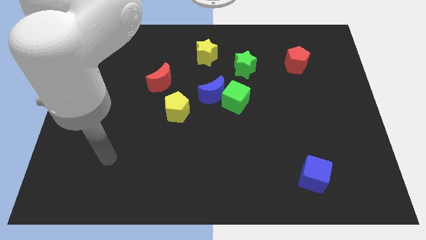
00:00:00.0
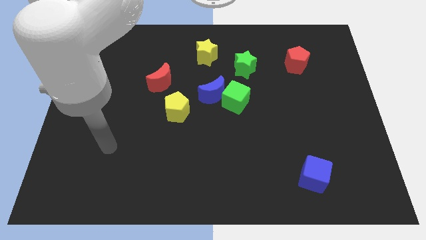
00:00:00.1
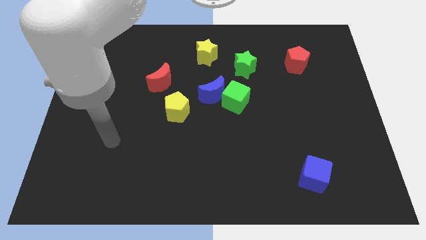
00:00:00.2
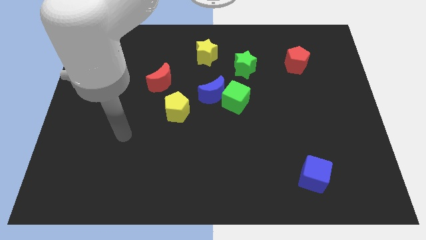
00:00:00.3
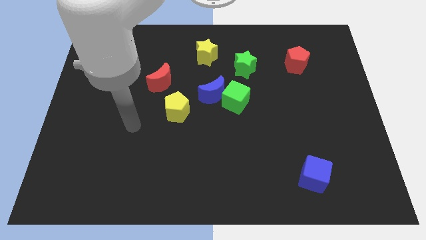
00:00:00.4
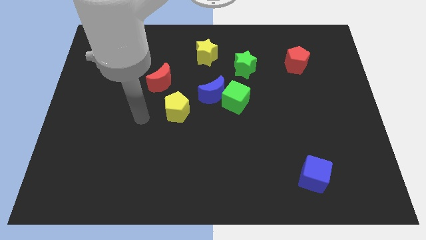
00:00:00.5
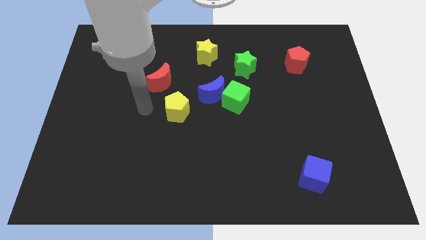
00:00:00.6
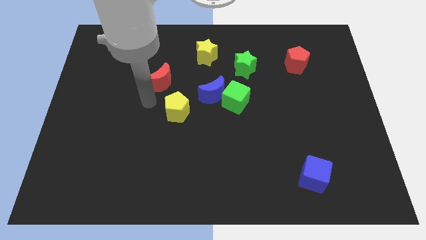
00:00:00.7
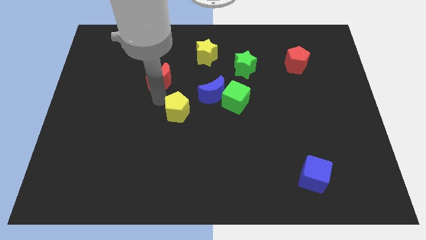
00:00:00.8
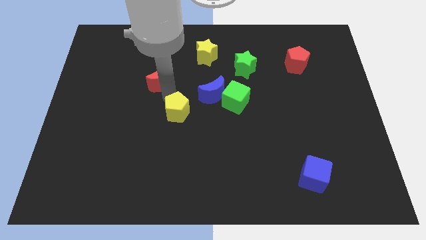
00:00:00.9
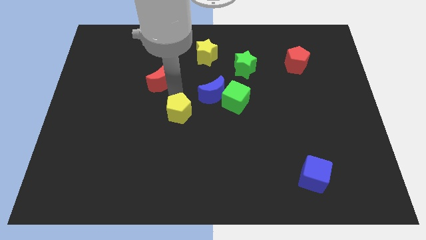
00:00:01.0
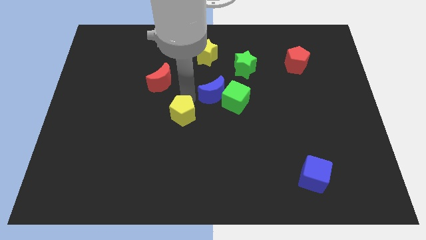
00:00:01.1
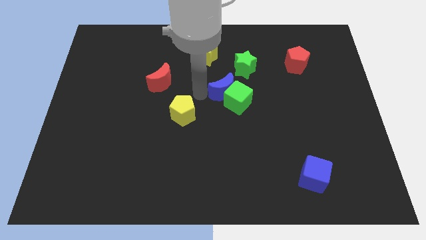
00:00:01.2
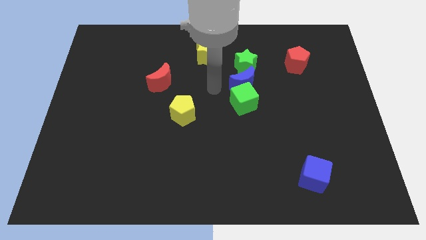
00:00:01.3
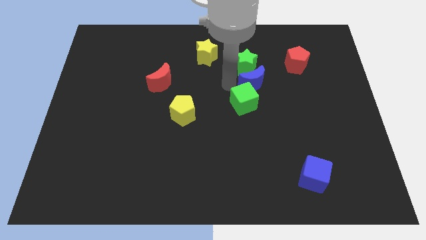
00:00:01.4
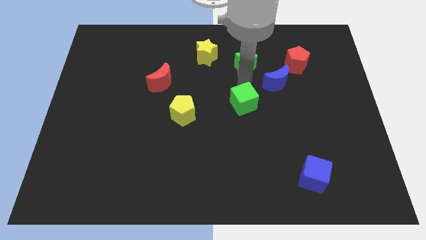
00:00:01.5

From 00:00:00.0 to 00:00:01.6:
move the green cube away from the blue moon

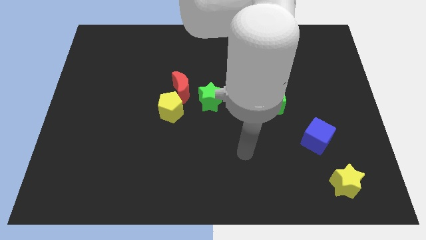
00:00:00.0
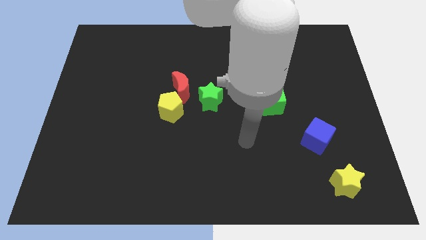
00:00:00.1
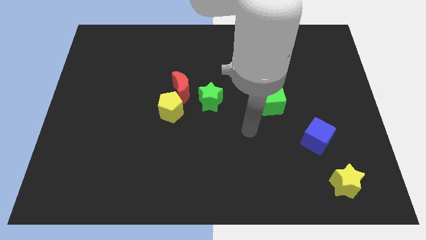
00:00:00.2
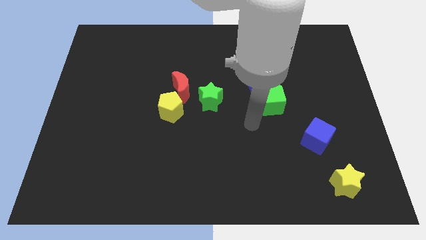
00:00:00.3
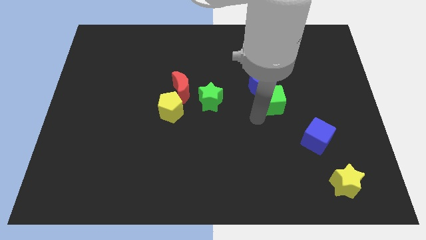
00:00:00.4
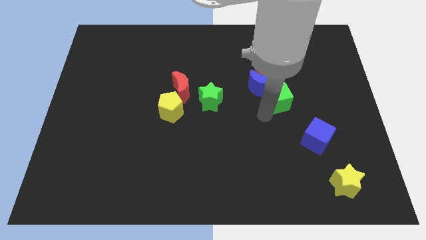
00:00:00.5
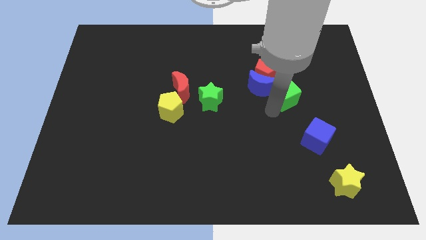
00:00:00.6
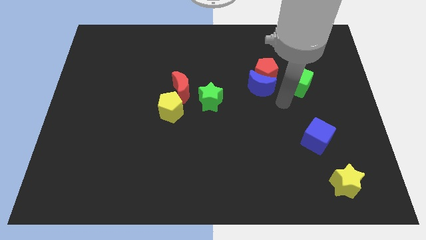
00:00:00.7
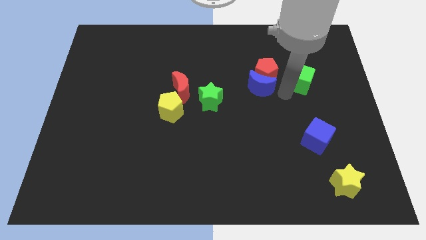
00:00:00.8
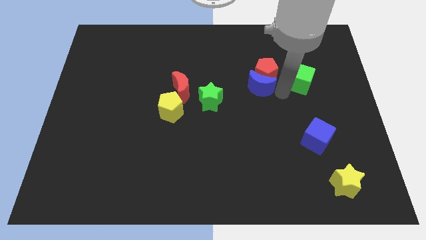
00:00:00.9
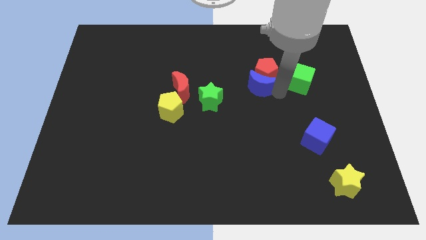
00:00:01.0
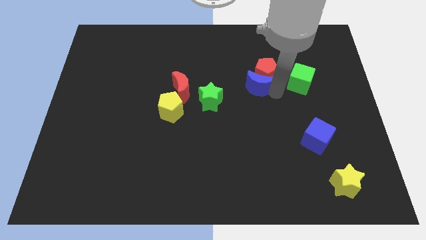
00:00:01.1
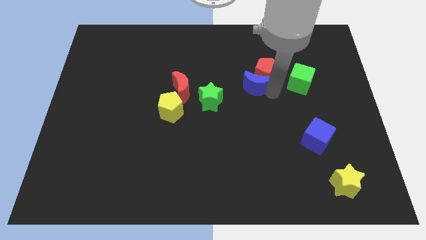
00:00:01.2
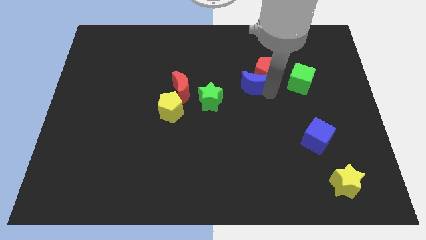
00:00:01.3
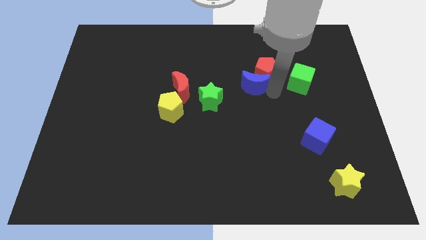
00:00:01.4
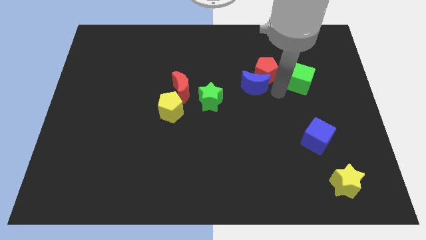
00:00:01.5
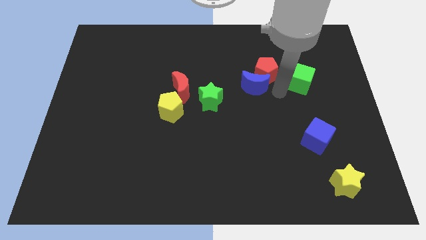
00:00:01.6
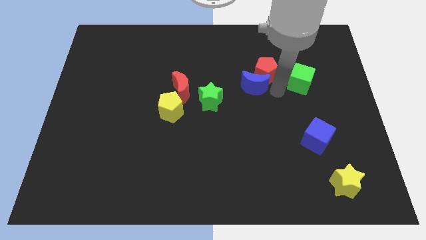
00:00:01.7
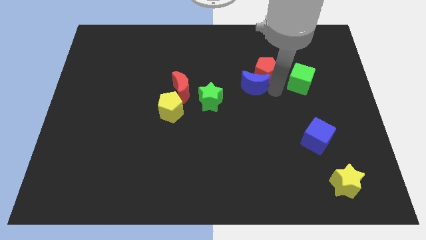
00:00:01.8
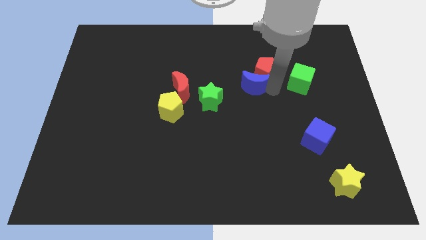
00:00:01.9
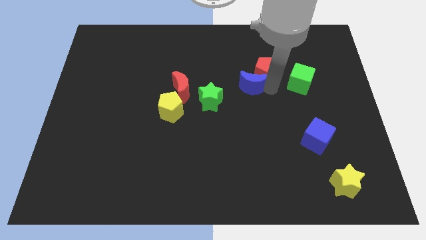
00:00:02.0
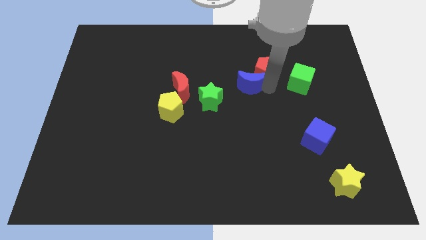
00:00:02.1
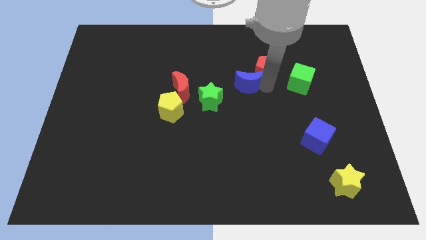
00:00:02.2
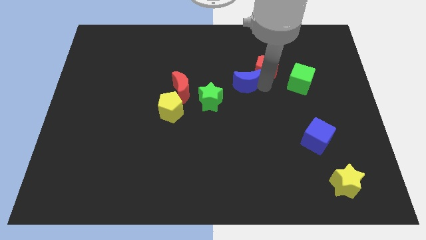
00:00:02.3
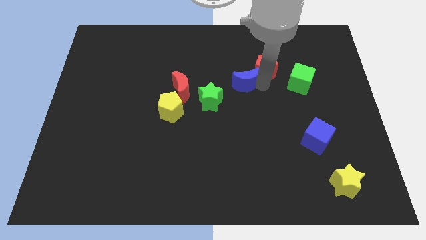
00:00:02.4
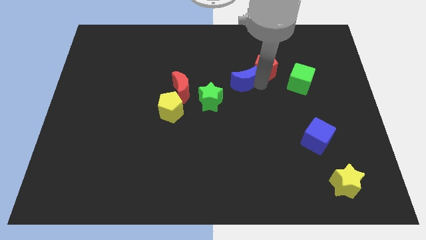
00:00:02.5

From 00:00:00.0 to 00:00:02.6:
move the blue moon away from the red pentagon and green cube

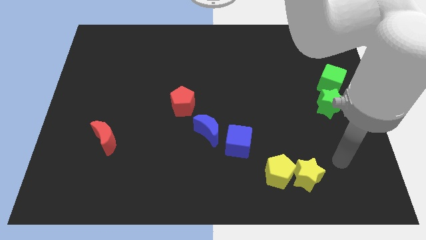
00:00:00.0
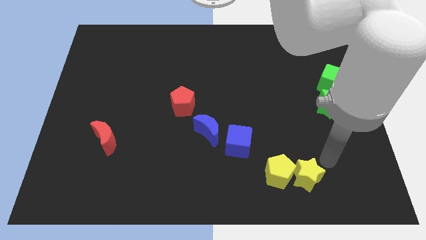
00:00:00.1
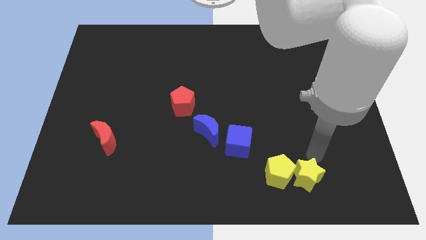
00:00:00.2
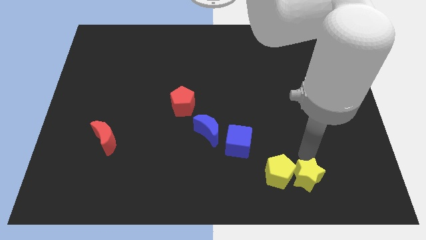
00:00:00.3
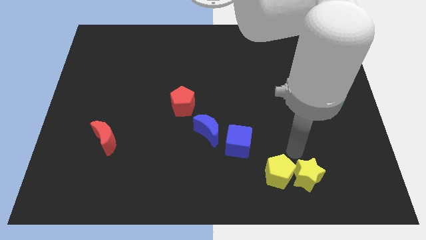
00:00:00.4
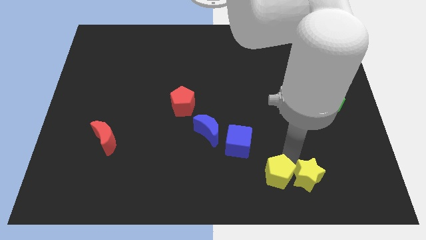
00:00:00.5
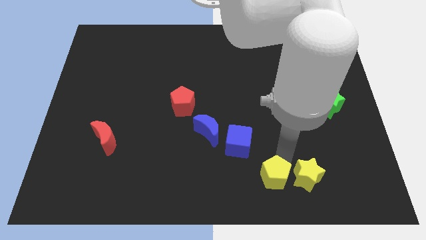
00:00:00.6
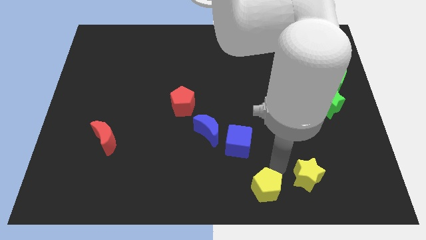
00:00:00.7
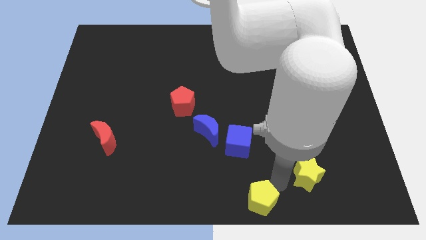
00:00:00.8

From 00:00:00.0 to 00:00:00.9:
move the yellow star away from the yellow pentagon

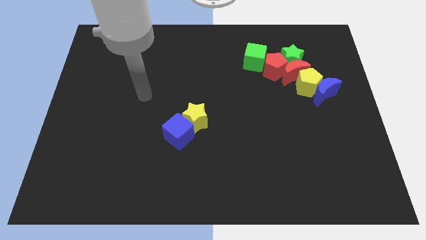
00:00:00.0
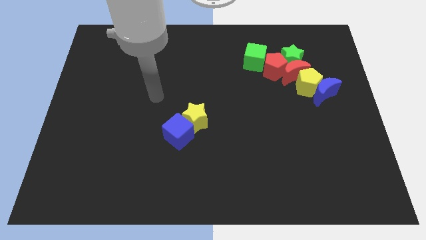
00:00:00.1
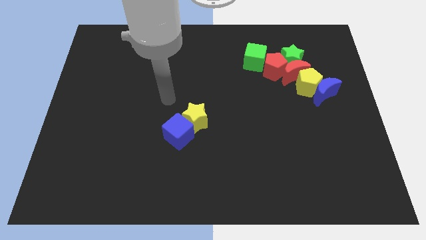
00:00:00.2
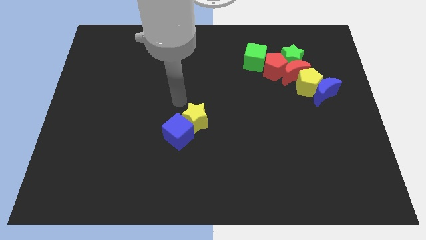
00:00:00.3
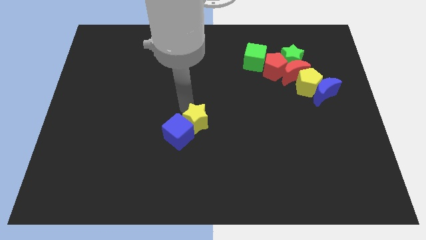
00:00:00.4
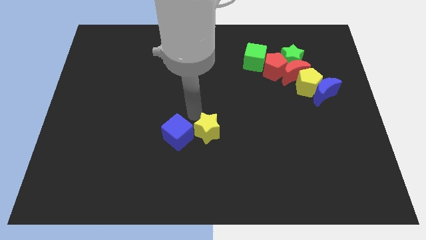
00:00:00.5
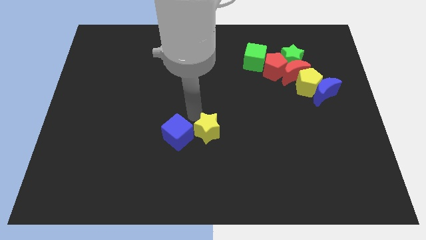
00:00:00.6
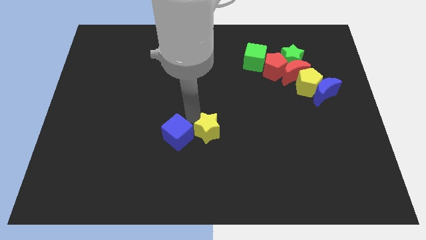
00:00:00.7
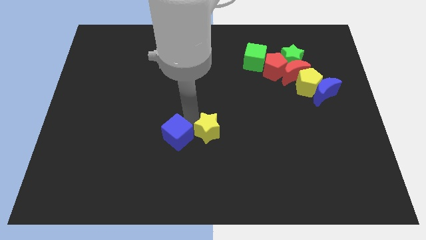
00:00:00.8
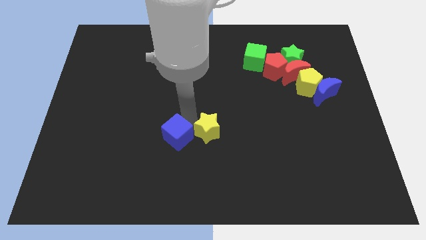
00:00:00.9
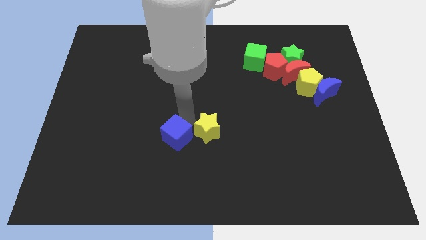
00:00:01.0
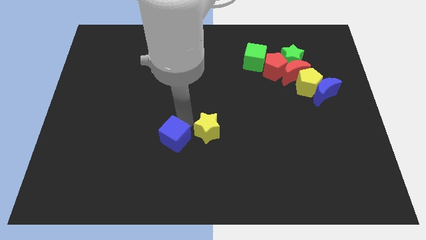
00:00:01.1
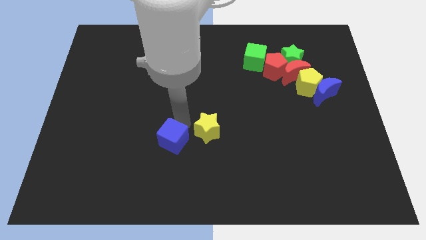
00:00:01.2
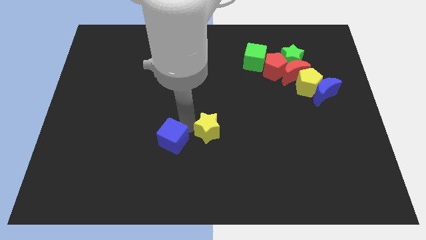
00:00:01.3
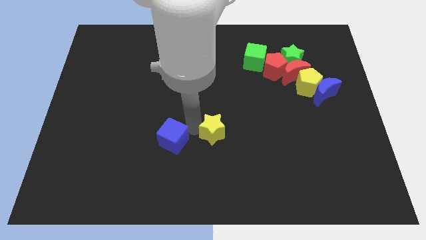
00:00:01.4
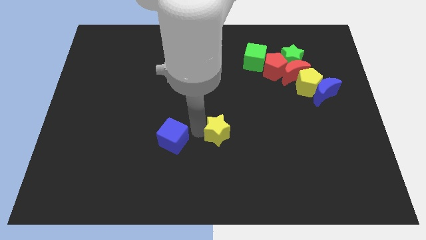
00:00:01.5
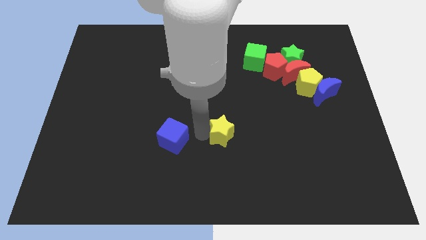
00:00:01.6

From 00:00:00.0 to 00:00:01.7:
pull the blue cube apart from the yellow star

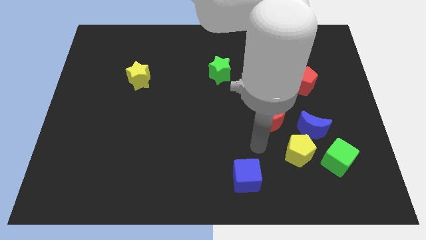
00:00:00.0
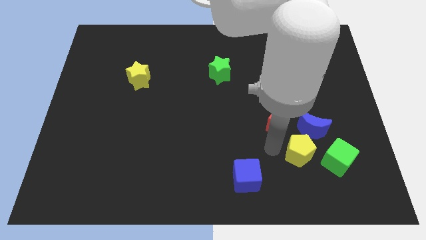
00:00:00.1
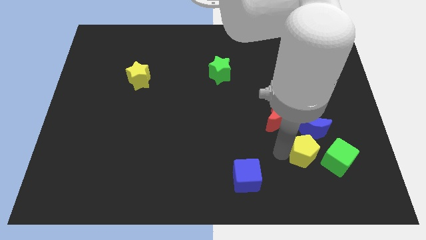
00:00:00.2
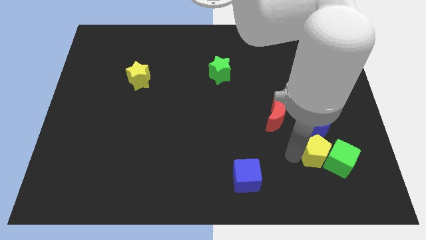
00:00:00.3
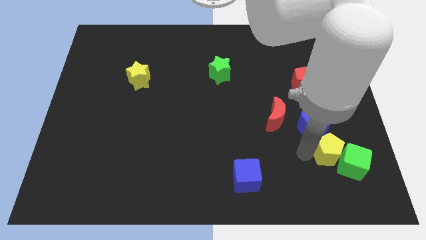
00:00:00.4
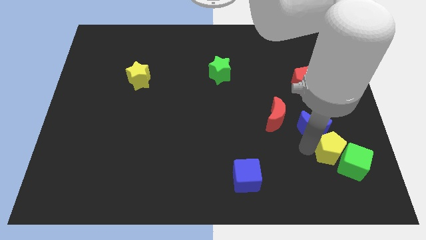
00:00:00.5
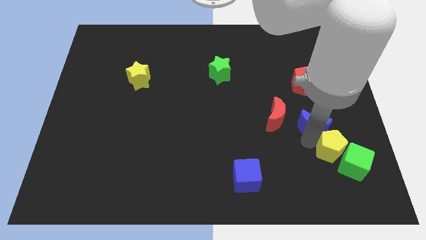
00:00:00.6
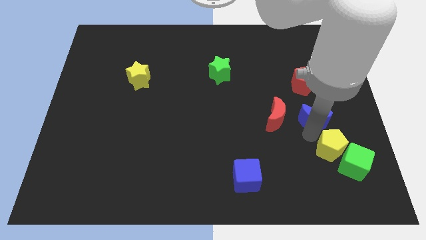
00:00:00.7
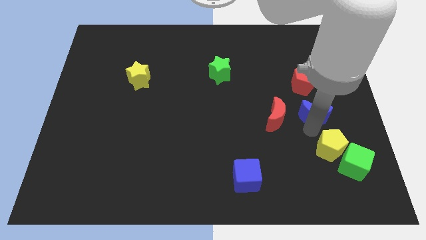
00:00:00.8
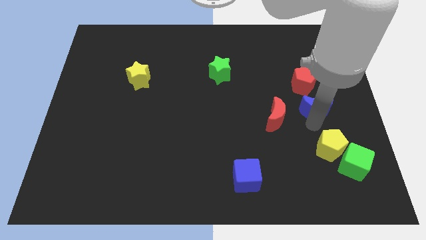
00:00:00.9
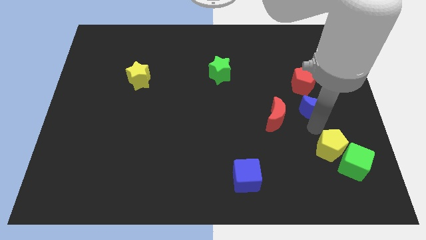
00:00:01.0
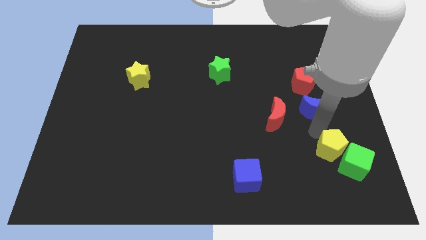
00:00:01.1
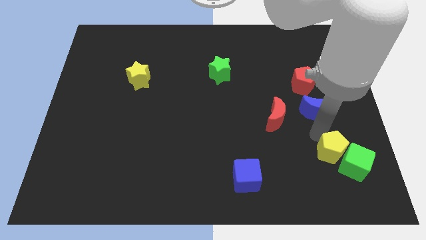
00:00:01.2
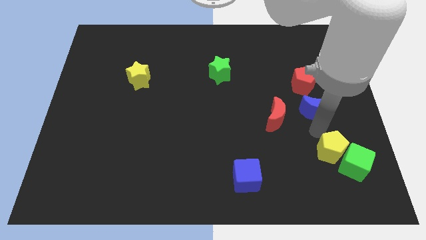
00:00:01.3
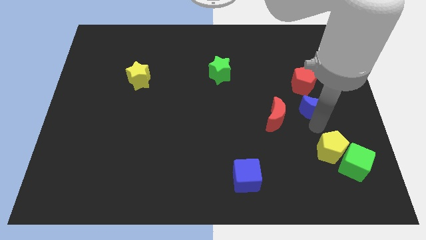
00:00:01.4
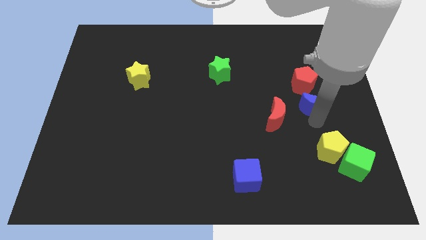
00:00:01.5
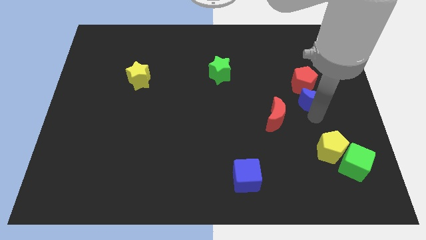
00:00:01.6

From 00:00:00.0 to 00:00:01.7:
separate the blue moon from the yellow pentagon, red moon, and green cube

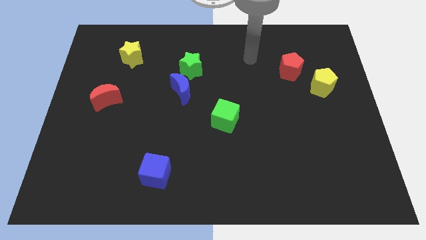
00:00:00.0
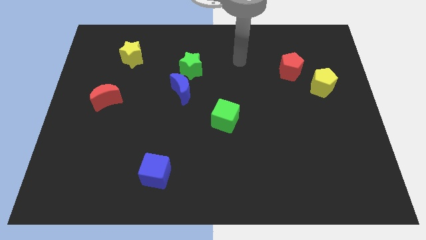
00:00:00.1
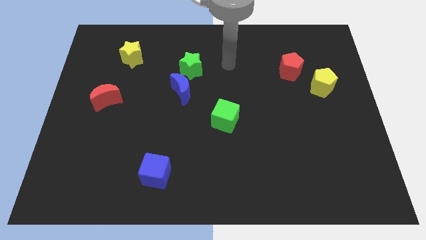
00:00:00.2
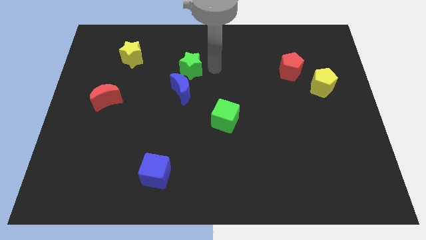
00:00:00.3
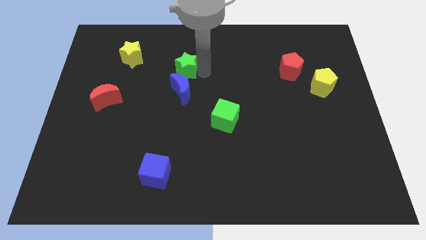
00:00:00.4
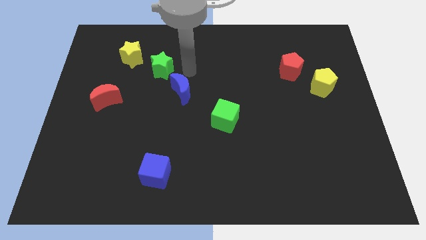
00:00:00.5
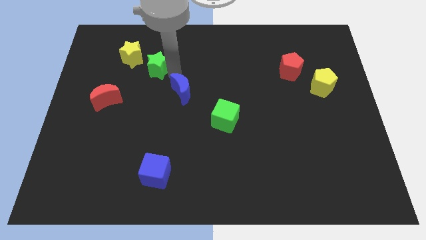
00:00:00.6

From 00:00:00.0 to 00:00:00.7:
pull the blue moon apart from the green star

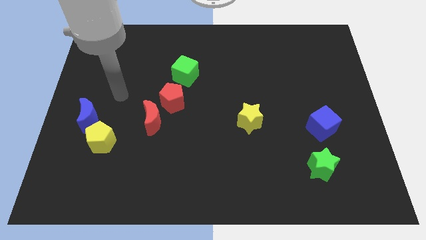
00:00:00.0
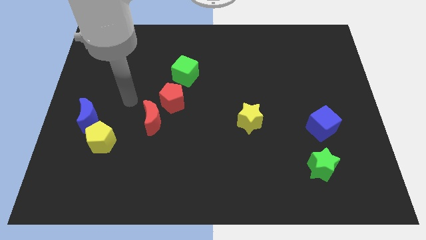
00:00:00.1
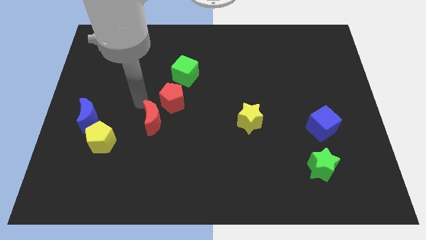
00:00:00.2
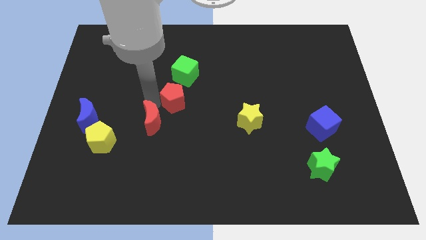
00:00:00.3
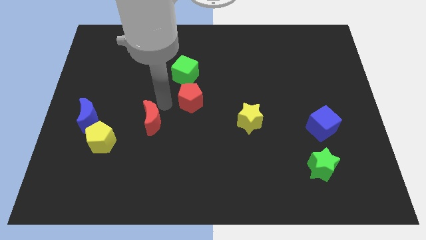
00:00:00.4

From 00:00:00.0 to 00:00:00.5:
pull the red moon apart from the red pentagon
